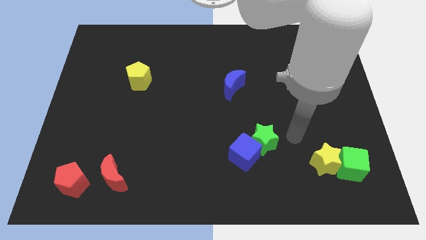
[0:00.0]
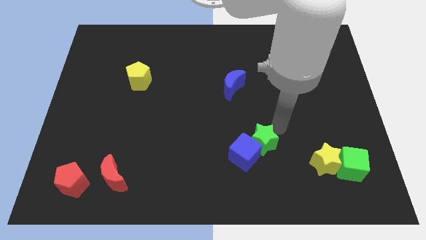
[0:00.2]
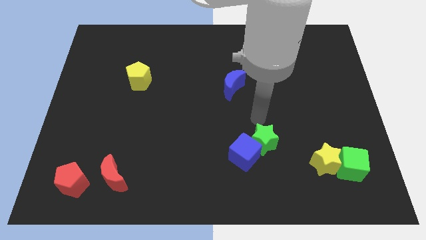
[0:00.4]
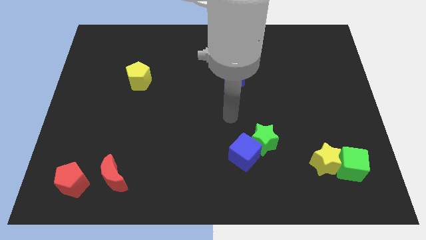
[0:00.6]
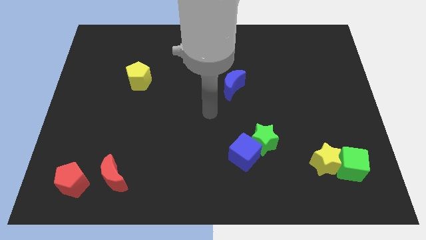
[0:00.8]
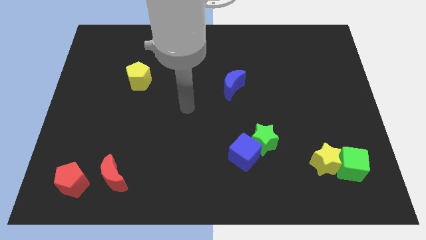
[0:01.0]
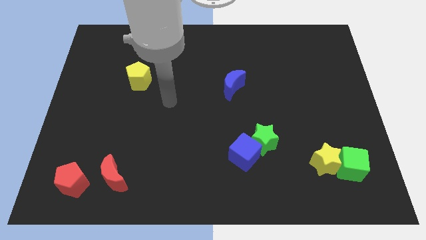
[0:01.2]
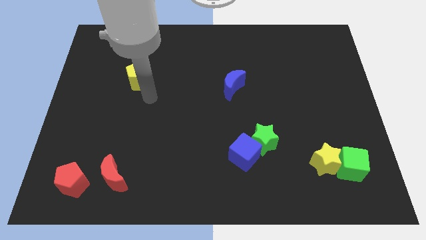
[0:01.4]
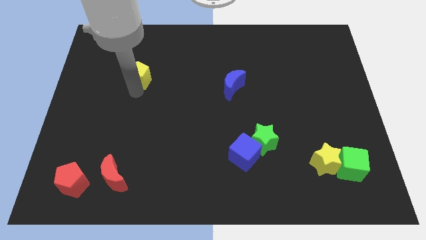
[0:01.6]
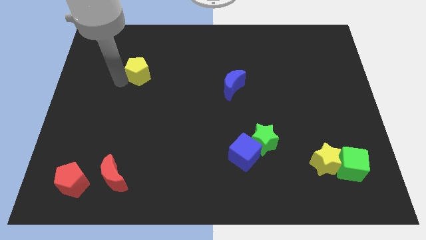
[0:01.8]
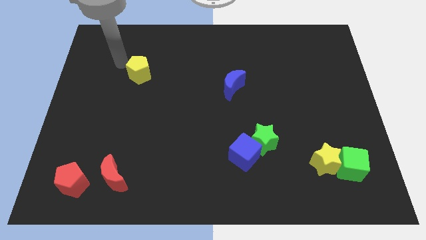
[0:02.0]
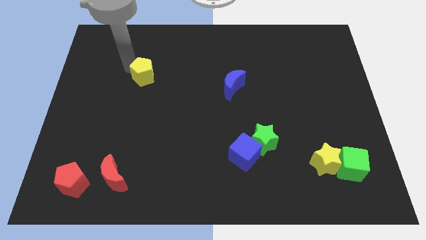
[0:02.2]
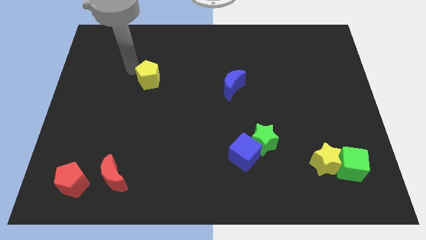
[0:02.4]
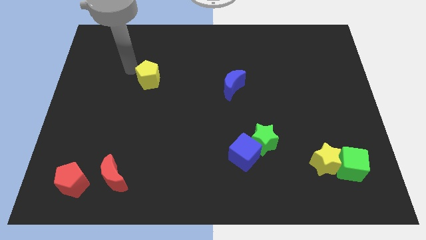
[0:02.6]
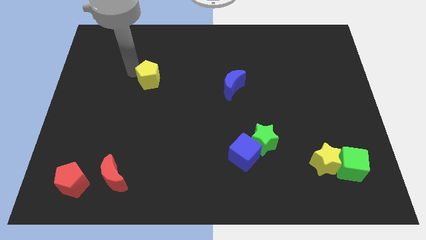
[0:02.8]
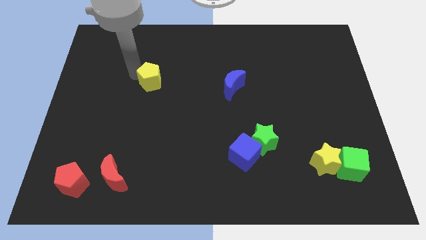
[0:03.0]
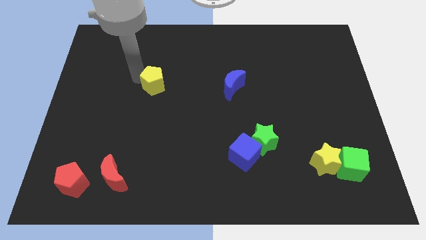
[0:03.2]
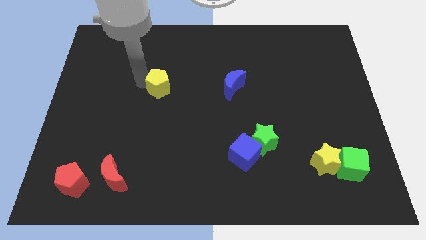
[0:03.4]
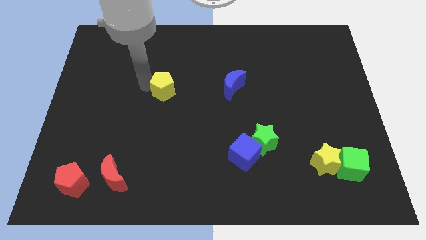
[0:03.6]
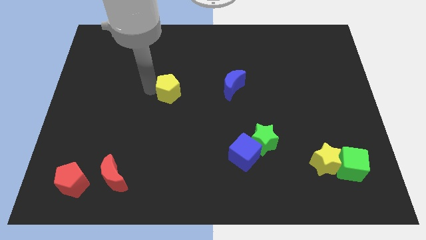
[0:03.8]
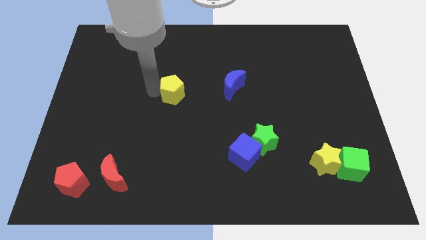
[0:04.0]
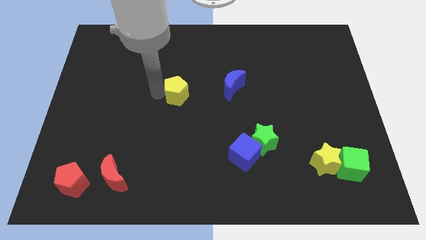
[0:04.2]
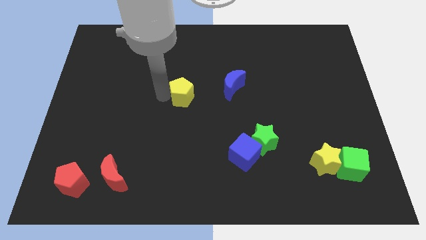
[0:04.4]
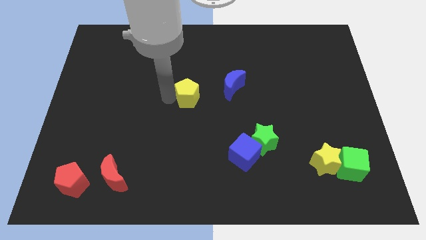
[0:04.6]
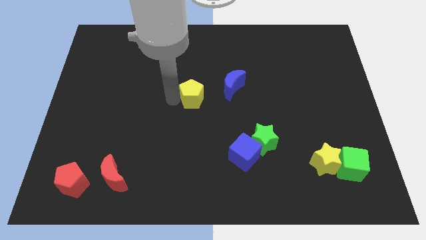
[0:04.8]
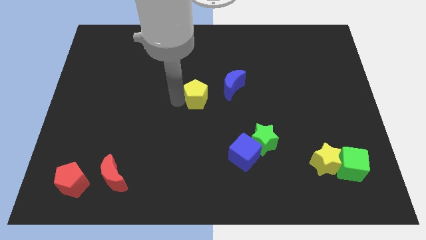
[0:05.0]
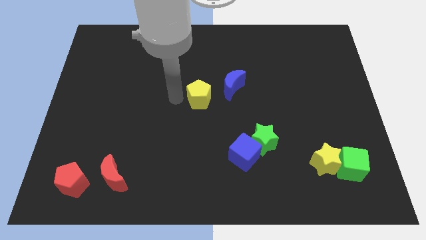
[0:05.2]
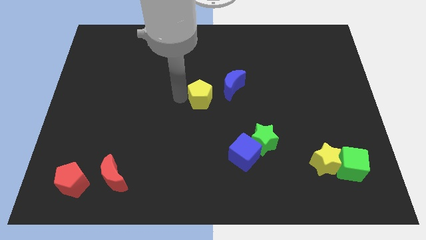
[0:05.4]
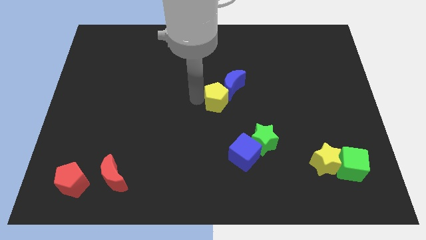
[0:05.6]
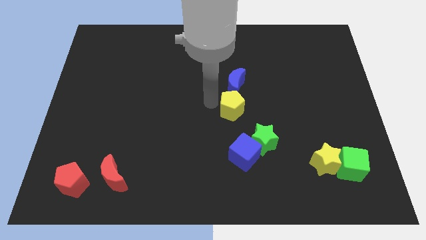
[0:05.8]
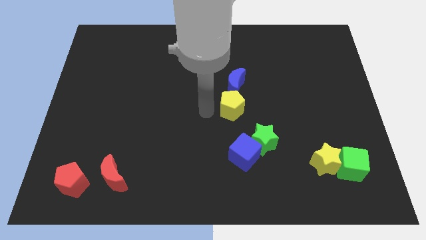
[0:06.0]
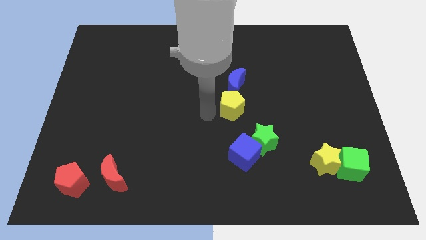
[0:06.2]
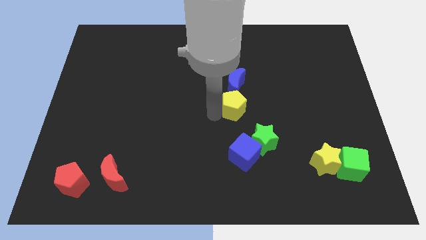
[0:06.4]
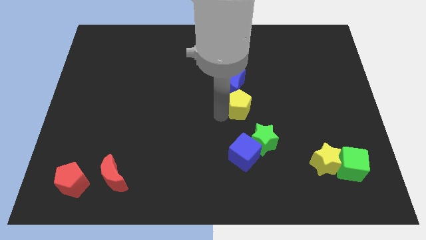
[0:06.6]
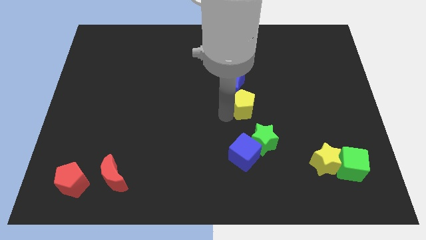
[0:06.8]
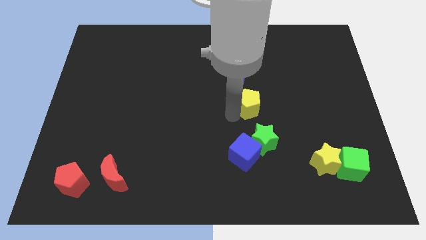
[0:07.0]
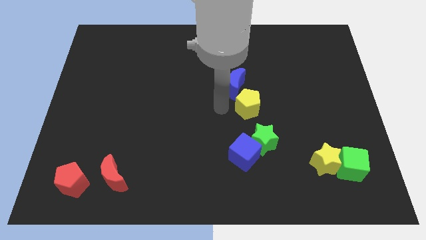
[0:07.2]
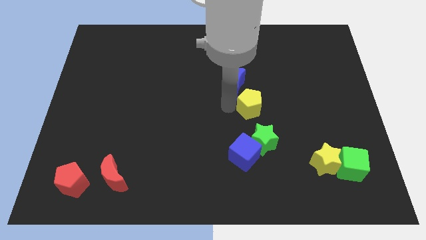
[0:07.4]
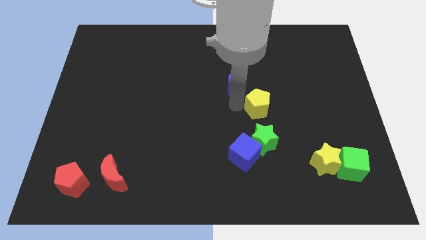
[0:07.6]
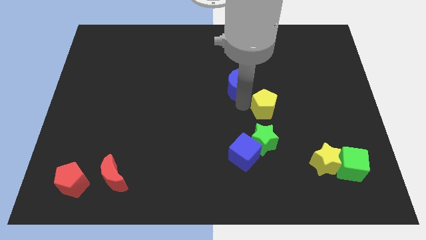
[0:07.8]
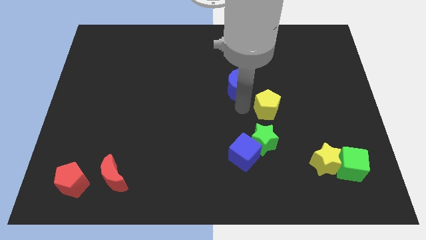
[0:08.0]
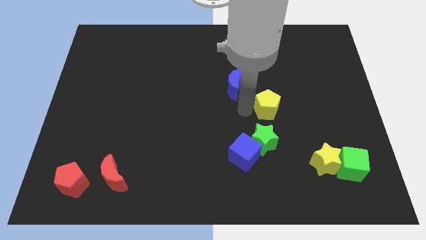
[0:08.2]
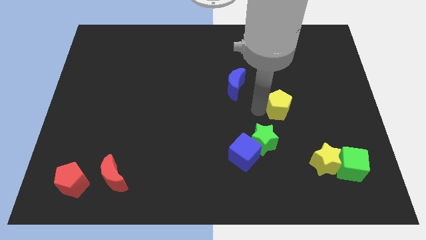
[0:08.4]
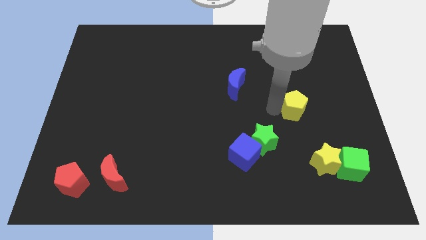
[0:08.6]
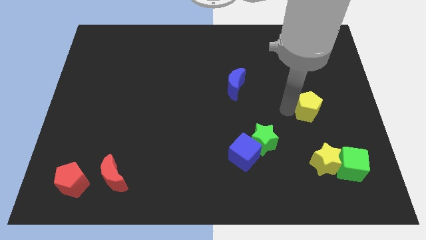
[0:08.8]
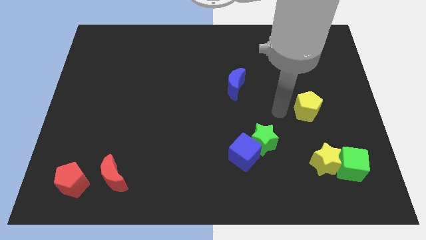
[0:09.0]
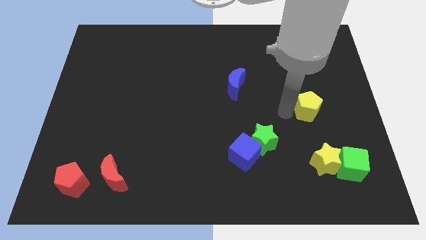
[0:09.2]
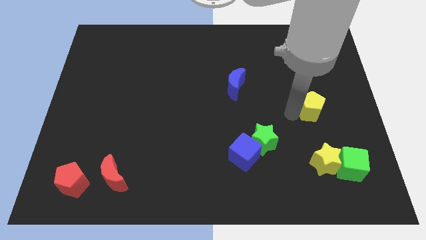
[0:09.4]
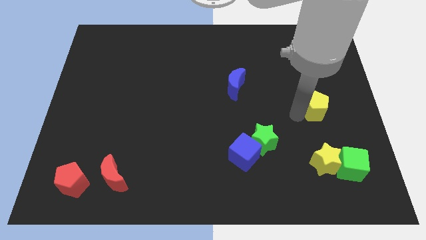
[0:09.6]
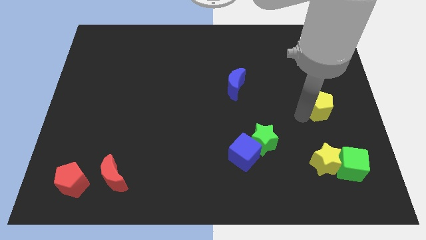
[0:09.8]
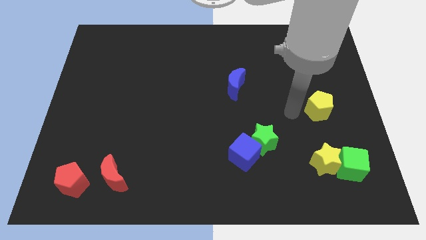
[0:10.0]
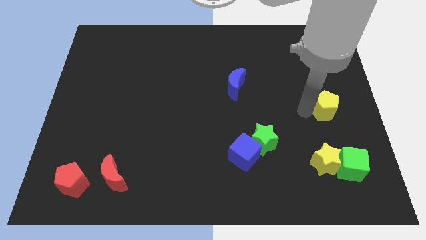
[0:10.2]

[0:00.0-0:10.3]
move the yellow pentagon to the right side
